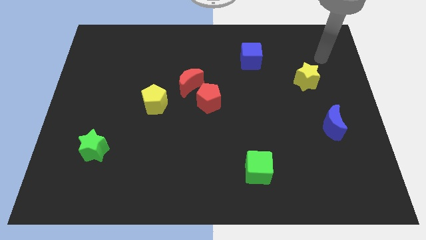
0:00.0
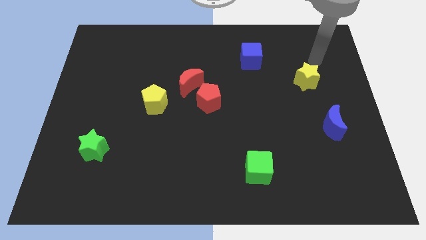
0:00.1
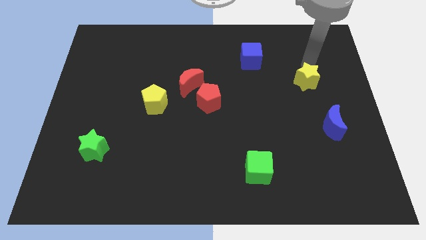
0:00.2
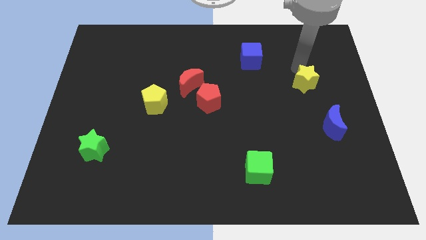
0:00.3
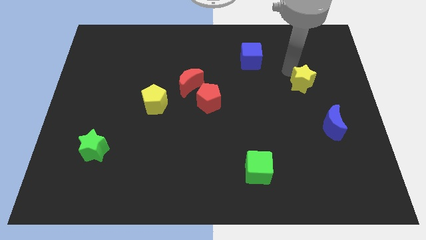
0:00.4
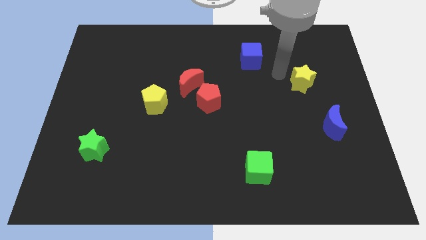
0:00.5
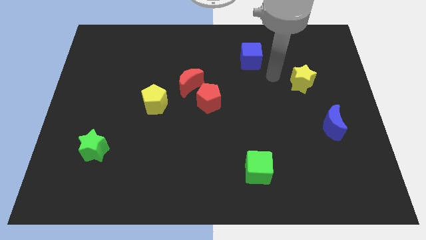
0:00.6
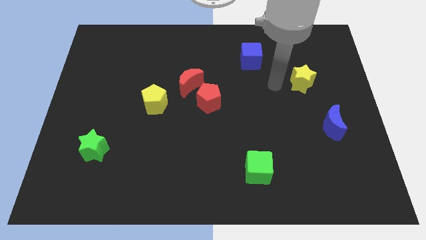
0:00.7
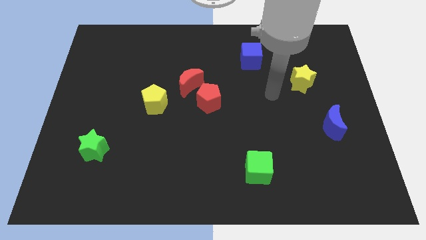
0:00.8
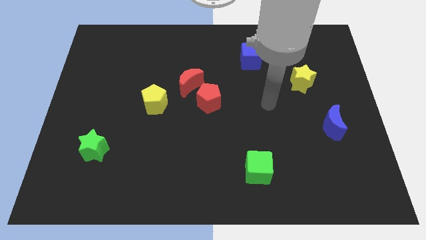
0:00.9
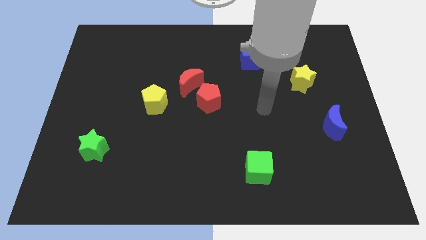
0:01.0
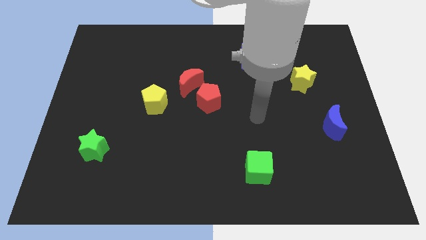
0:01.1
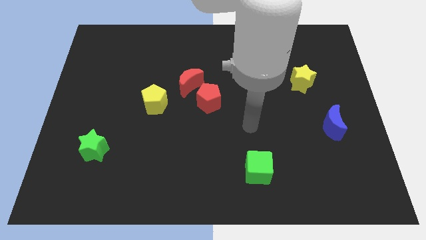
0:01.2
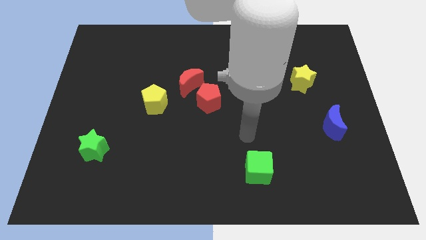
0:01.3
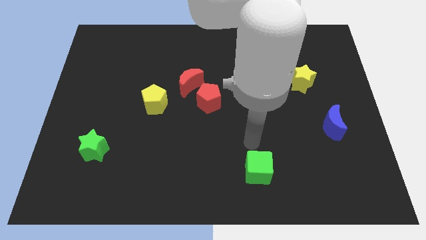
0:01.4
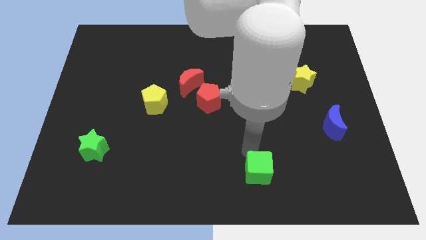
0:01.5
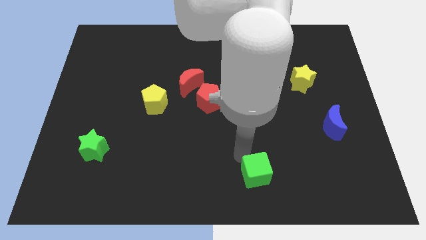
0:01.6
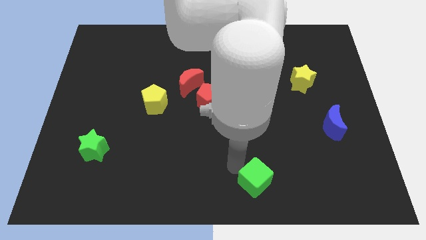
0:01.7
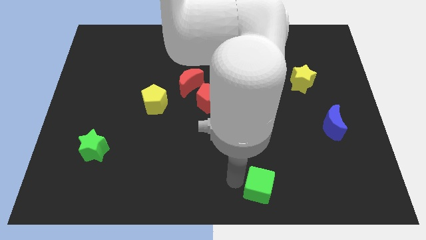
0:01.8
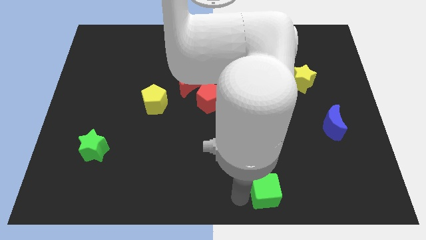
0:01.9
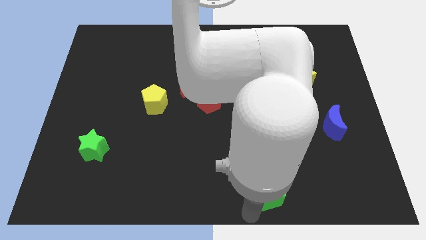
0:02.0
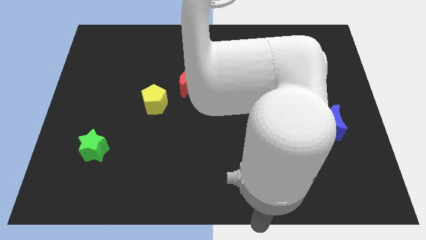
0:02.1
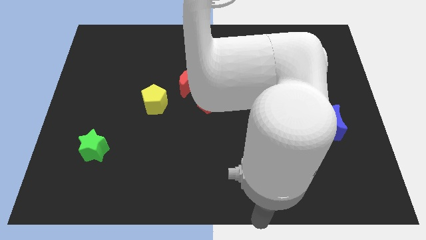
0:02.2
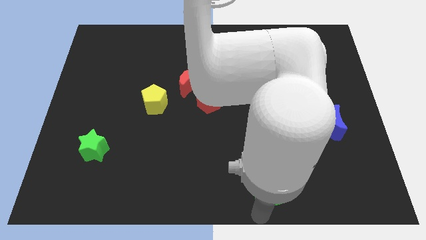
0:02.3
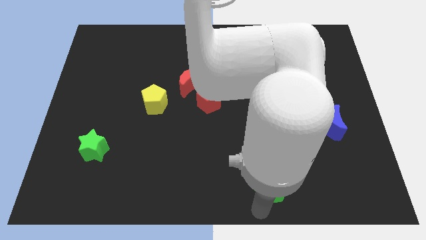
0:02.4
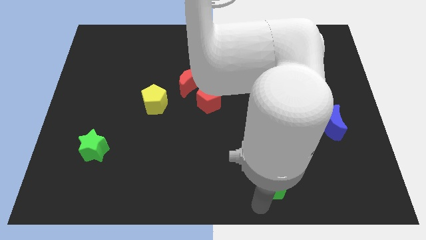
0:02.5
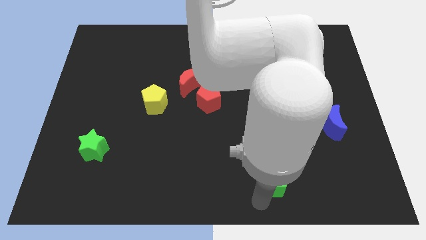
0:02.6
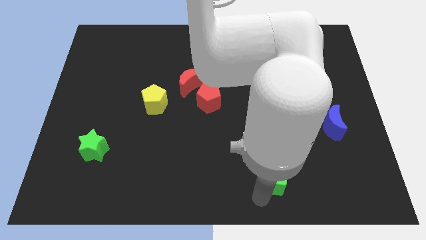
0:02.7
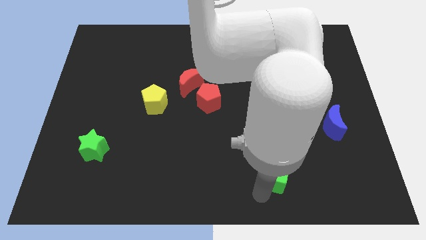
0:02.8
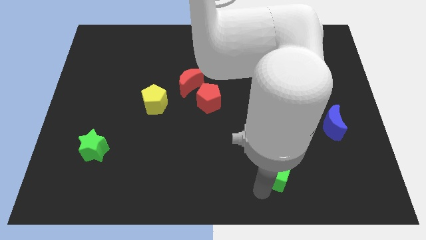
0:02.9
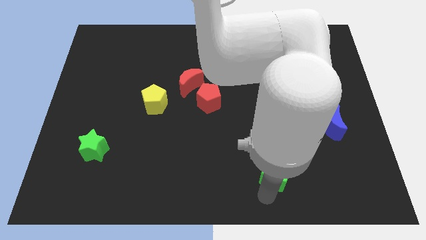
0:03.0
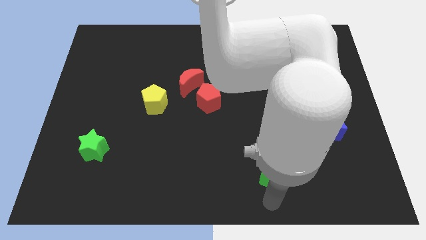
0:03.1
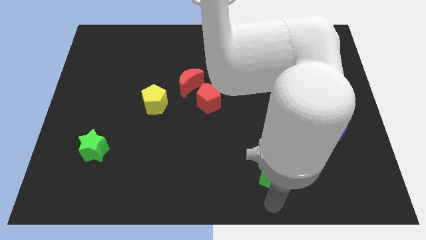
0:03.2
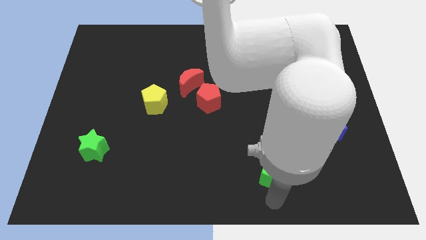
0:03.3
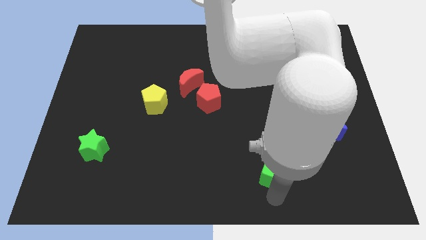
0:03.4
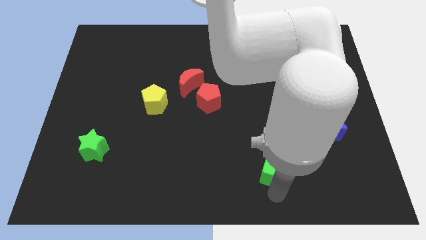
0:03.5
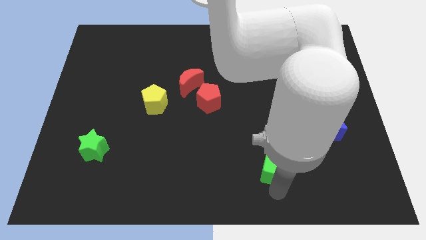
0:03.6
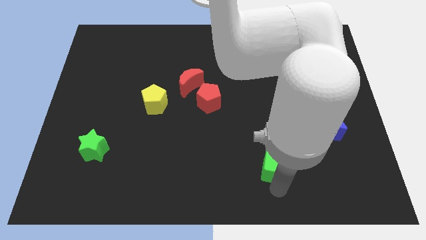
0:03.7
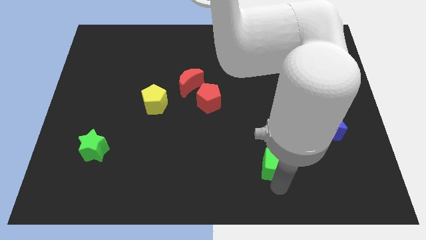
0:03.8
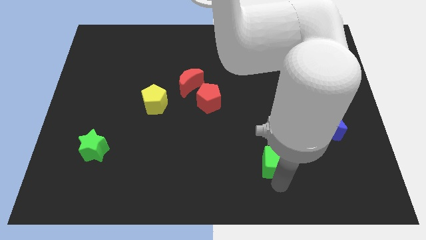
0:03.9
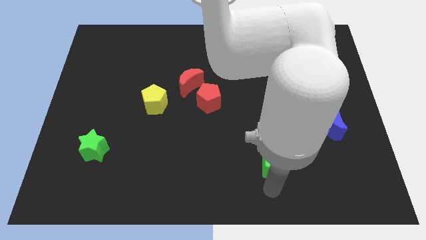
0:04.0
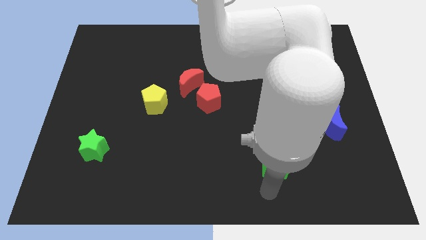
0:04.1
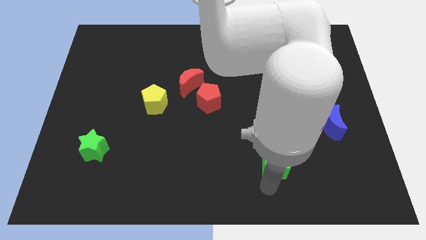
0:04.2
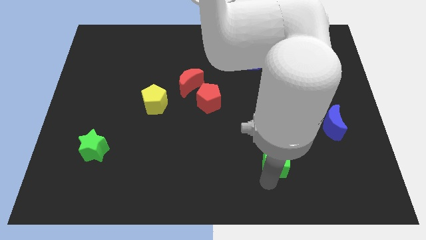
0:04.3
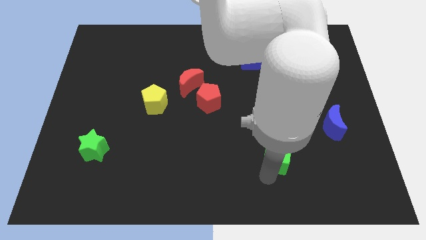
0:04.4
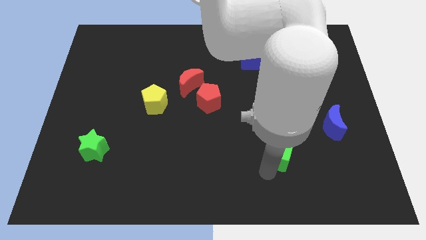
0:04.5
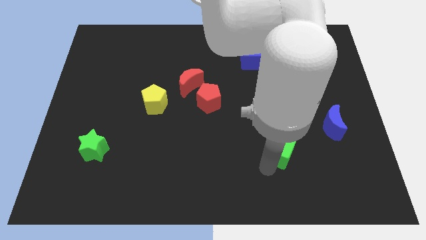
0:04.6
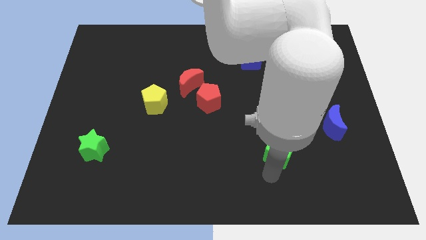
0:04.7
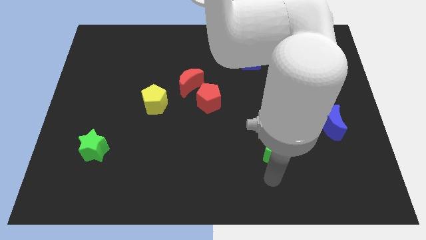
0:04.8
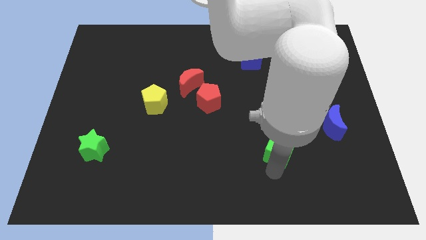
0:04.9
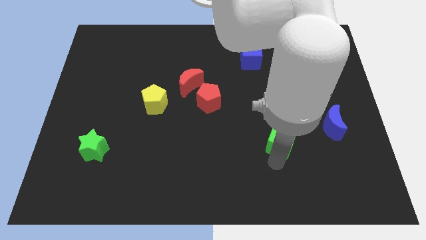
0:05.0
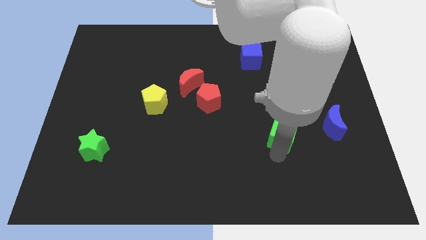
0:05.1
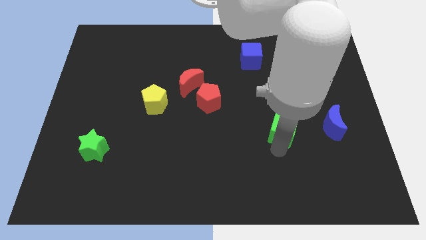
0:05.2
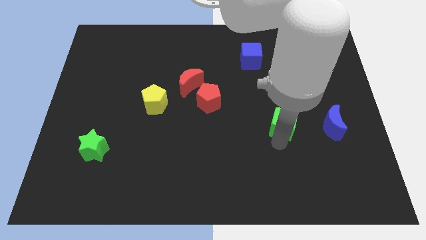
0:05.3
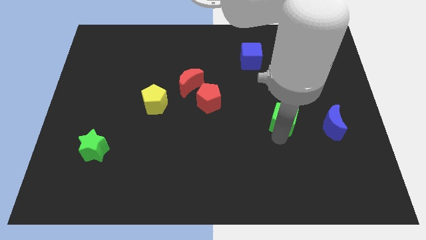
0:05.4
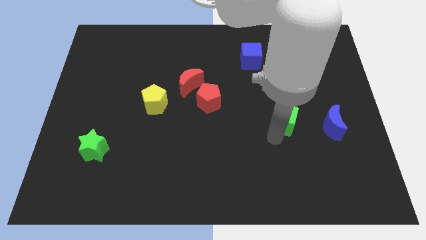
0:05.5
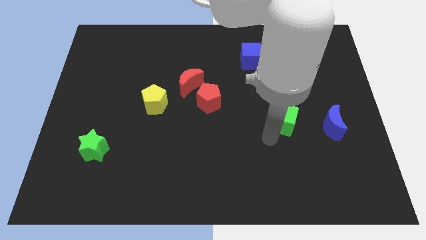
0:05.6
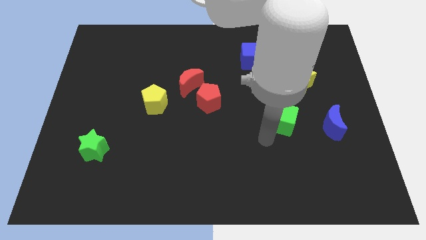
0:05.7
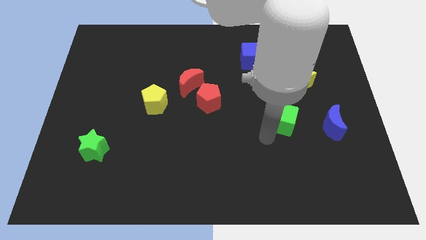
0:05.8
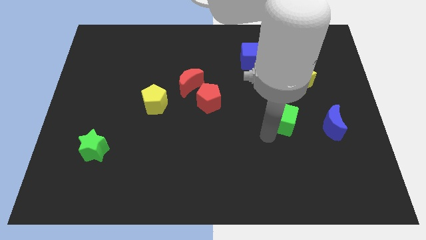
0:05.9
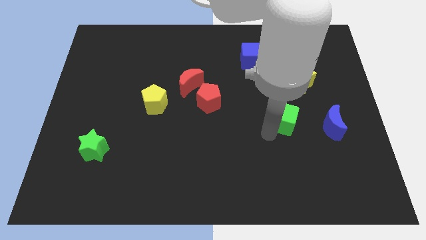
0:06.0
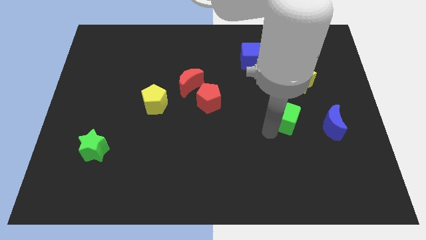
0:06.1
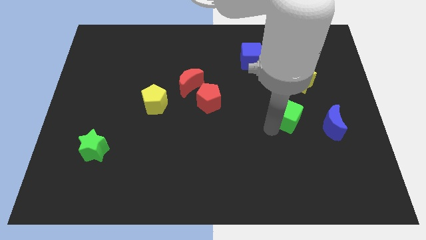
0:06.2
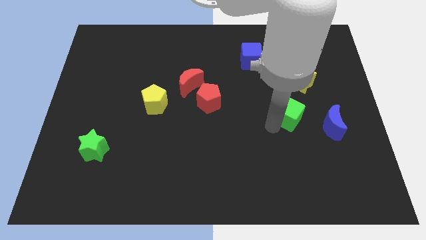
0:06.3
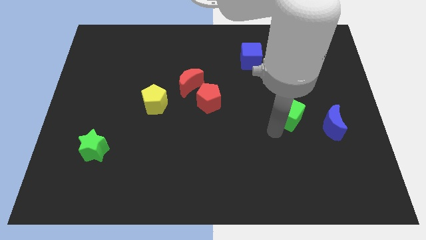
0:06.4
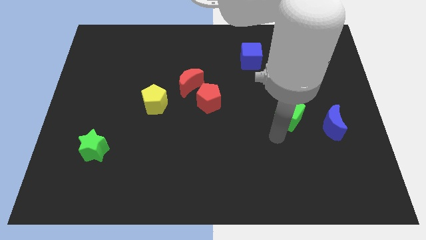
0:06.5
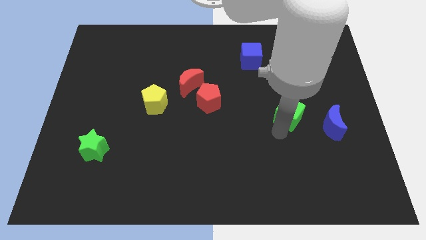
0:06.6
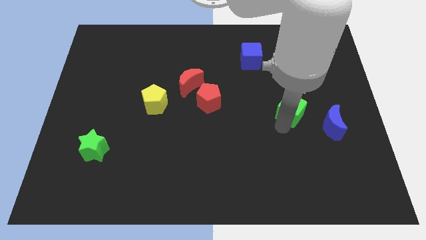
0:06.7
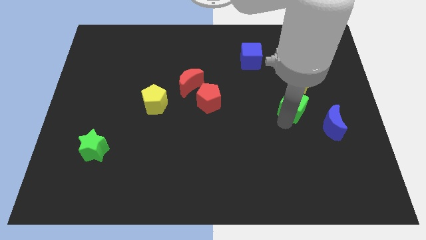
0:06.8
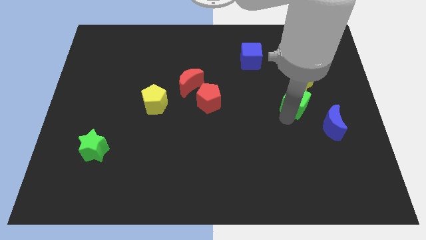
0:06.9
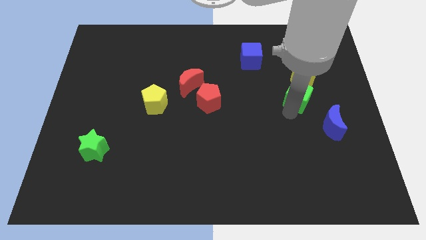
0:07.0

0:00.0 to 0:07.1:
push the green cube towards the yellow star
